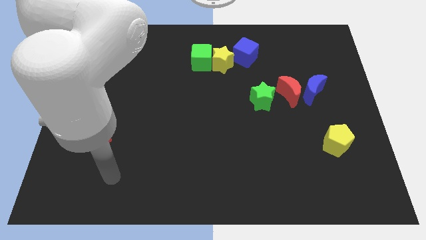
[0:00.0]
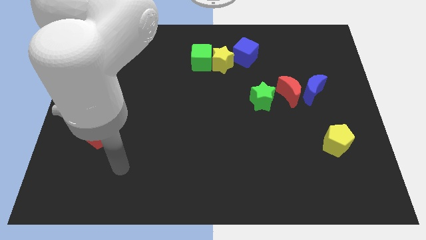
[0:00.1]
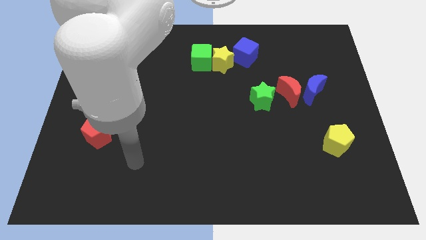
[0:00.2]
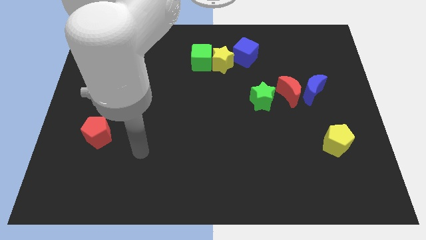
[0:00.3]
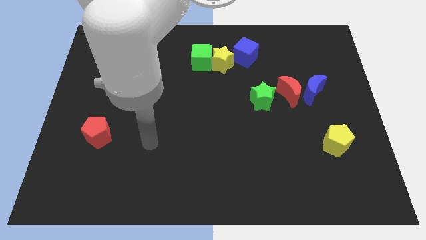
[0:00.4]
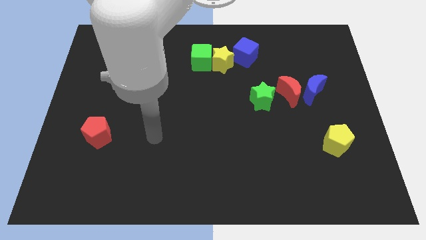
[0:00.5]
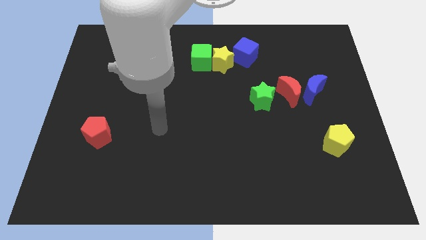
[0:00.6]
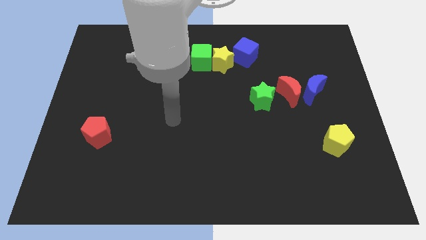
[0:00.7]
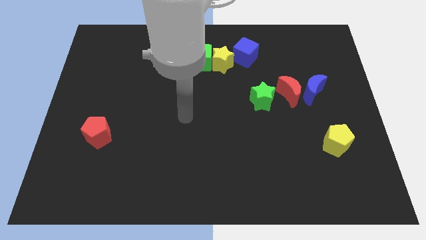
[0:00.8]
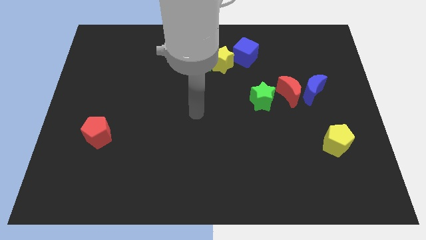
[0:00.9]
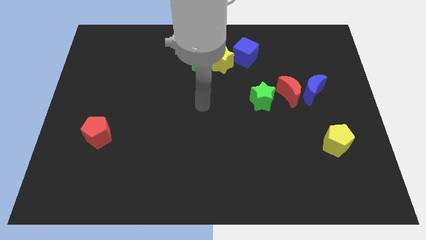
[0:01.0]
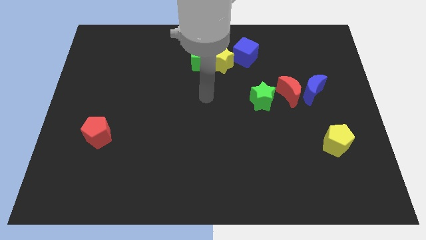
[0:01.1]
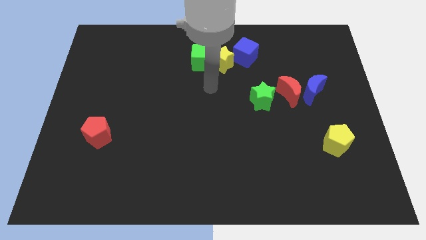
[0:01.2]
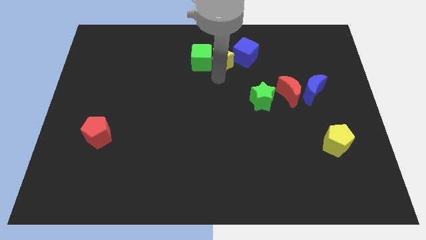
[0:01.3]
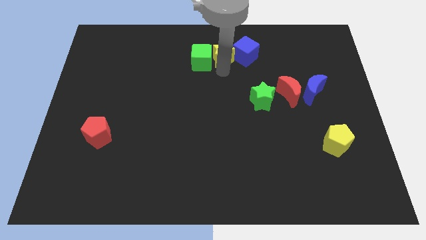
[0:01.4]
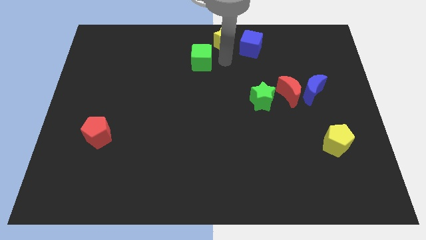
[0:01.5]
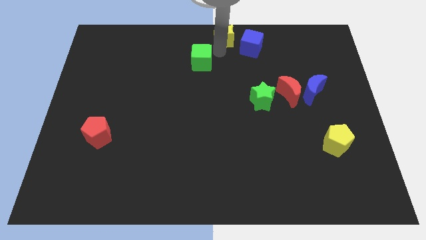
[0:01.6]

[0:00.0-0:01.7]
move the green cube away from the yellow star

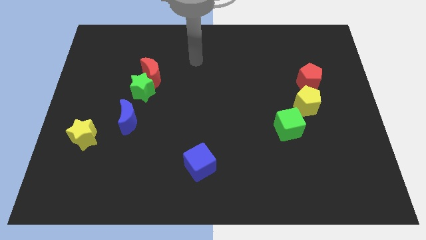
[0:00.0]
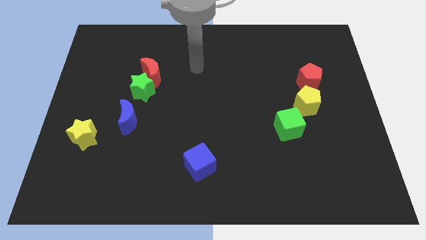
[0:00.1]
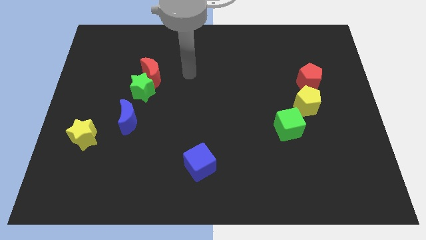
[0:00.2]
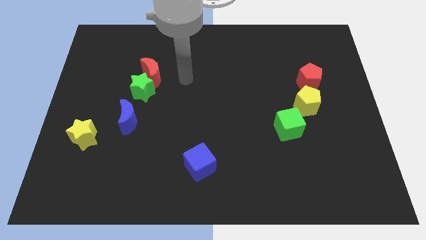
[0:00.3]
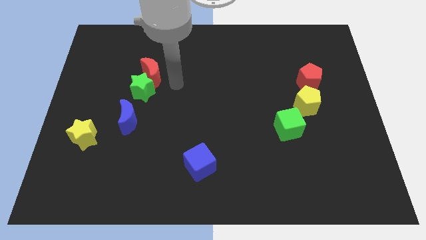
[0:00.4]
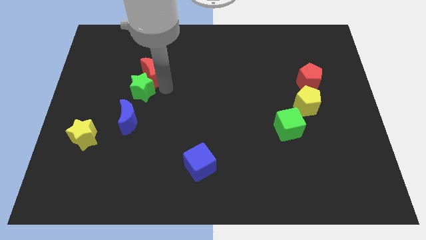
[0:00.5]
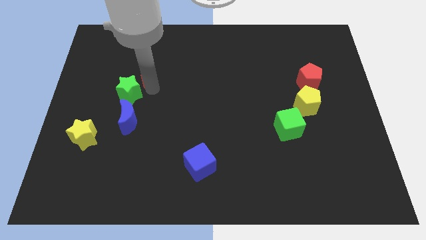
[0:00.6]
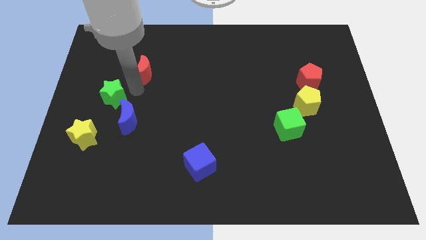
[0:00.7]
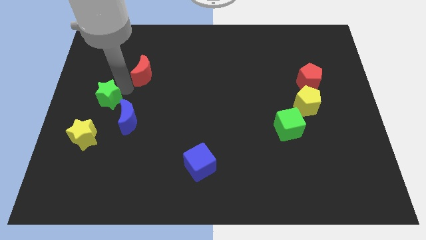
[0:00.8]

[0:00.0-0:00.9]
move the red moon away from the green star

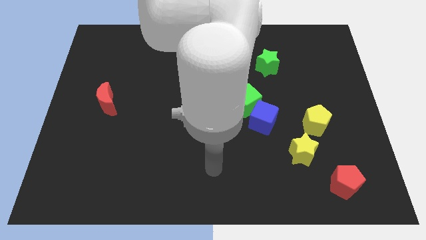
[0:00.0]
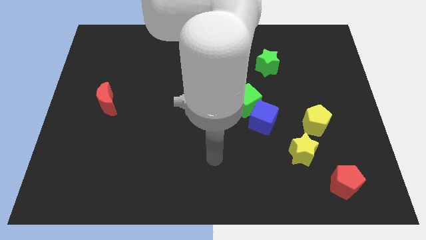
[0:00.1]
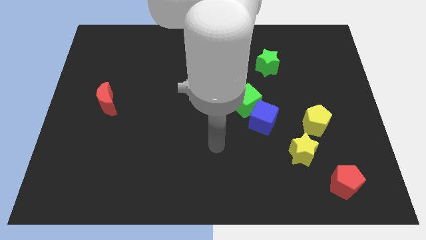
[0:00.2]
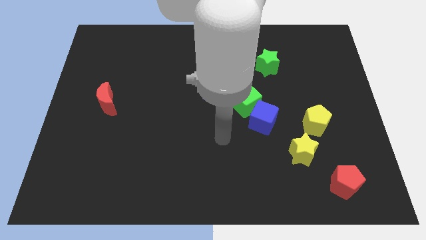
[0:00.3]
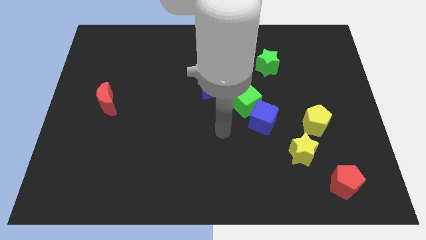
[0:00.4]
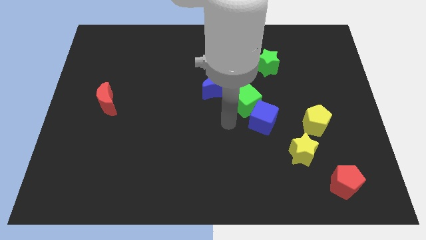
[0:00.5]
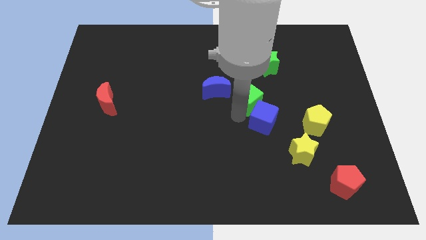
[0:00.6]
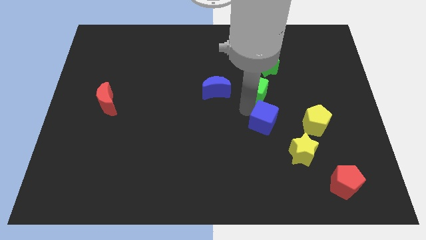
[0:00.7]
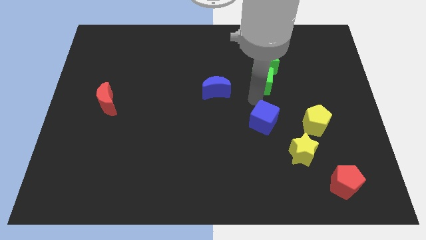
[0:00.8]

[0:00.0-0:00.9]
move the blue cube away from the green cube

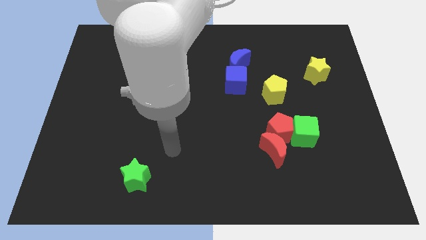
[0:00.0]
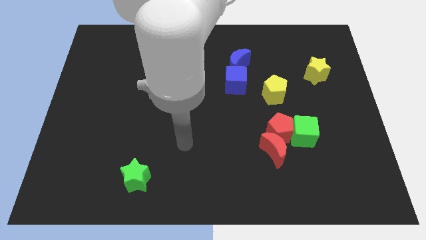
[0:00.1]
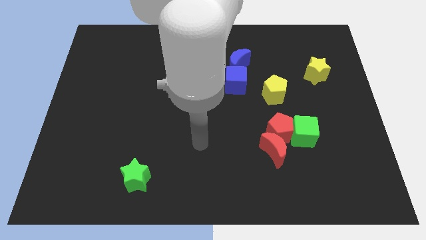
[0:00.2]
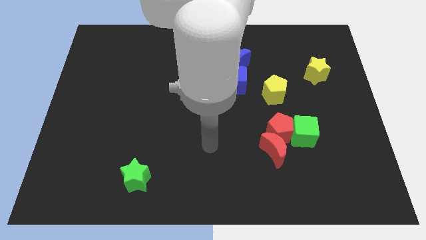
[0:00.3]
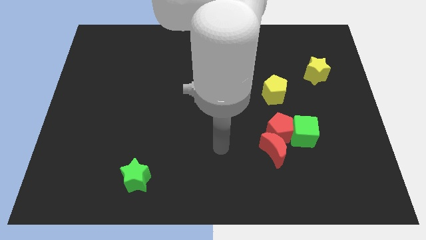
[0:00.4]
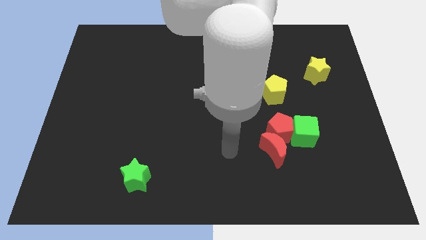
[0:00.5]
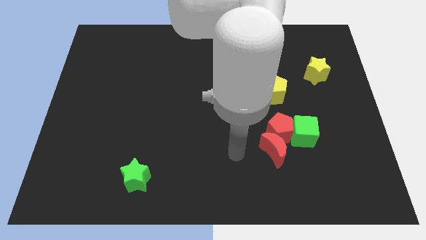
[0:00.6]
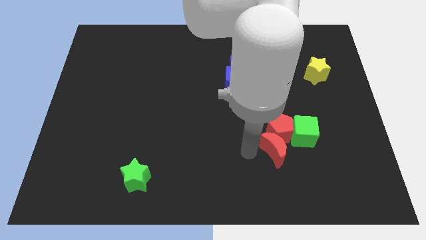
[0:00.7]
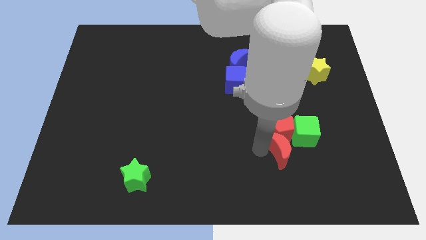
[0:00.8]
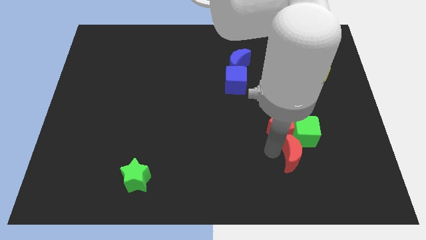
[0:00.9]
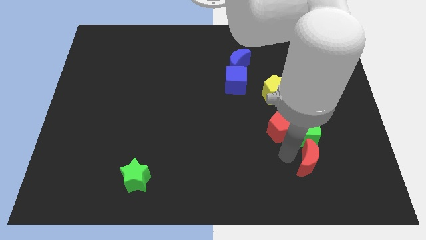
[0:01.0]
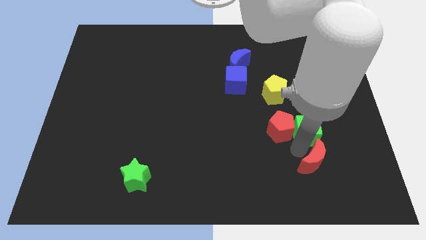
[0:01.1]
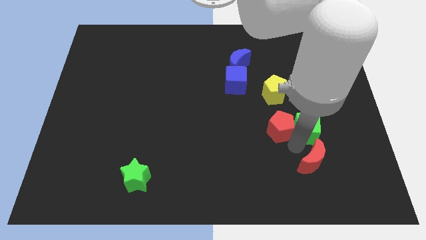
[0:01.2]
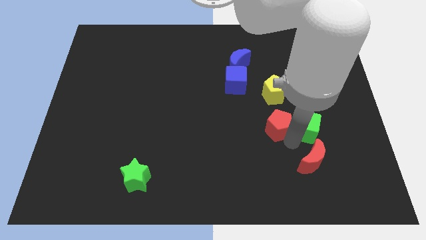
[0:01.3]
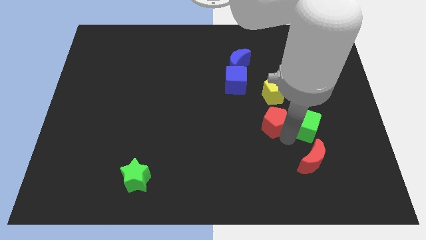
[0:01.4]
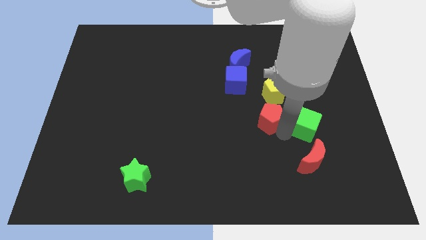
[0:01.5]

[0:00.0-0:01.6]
move the red pentagon away from the red moon and green cube

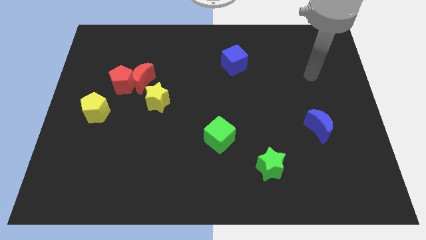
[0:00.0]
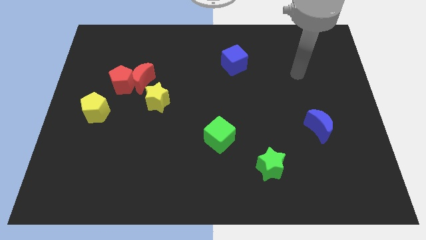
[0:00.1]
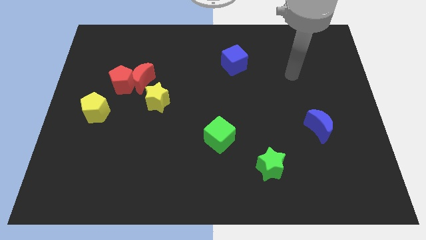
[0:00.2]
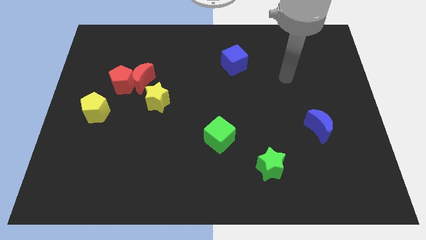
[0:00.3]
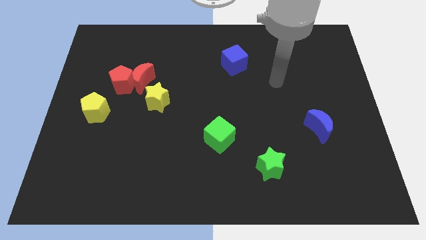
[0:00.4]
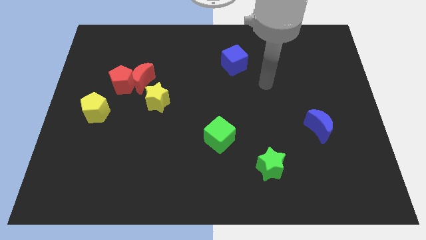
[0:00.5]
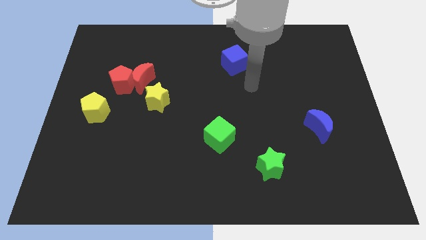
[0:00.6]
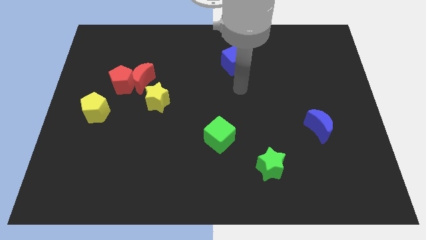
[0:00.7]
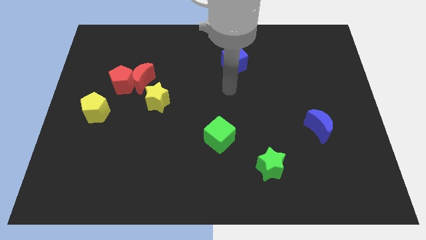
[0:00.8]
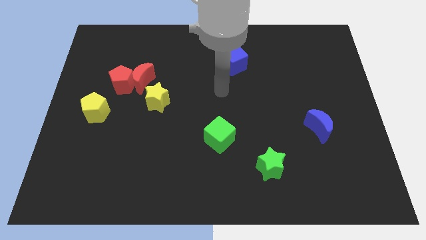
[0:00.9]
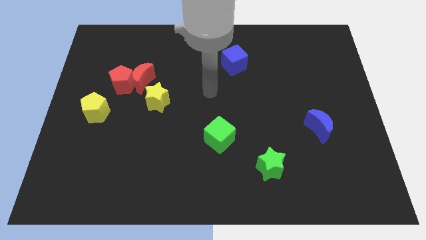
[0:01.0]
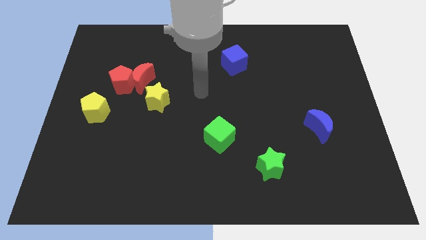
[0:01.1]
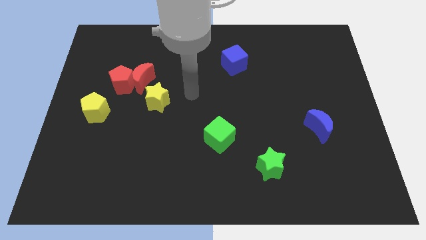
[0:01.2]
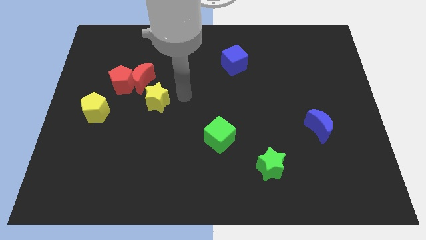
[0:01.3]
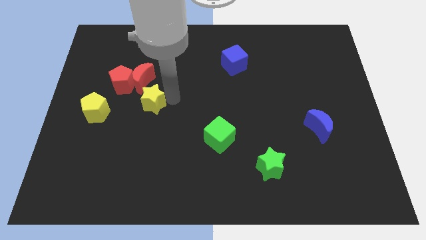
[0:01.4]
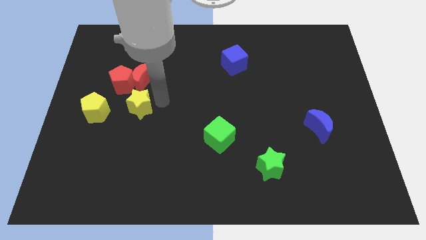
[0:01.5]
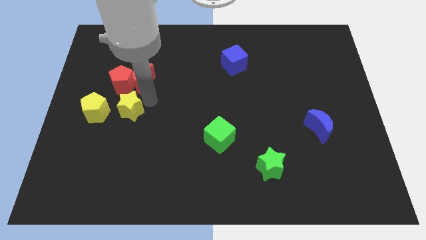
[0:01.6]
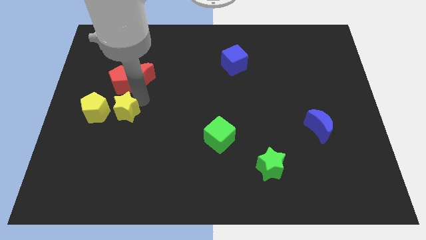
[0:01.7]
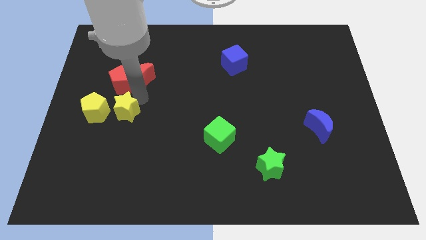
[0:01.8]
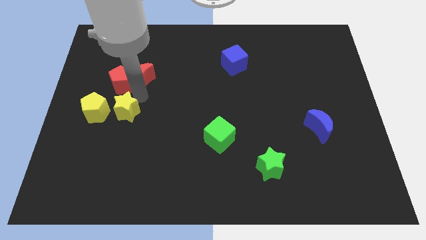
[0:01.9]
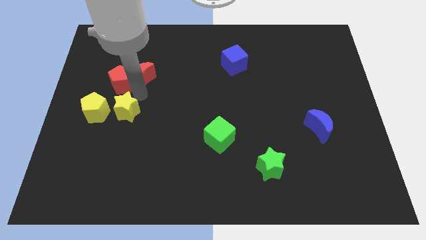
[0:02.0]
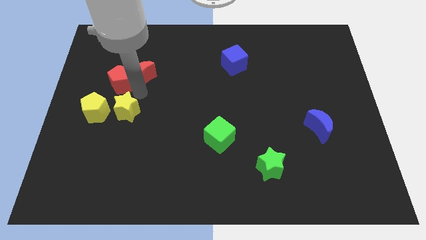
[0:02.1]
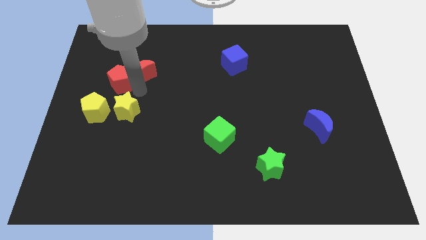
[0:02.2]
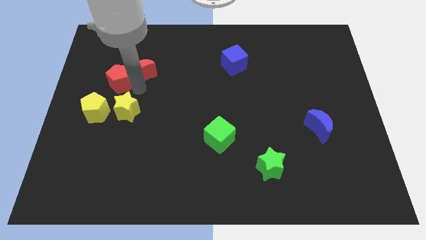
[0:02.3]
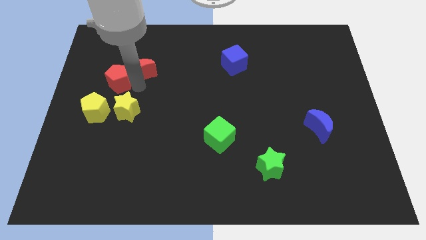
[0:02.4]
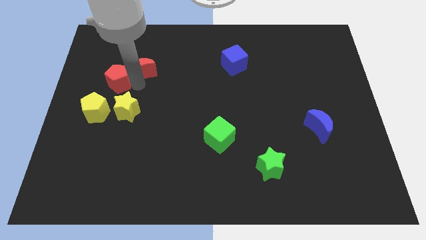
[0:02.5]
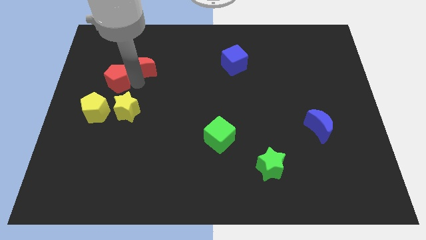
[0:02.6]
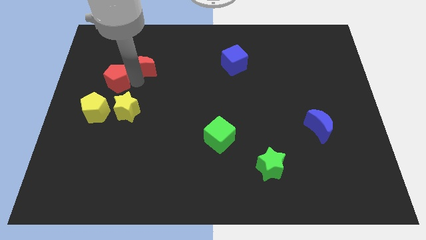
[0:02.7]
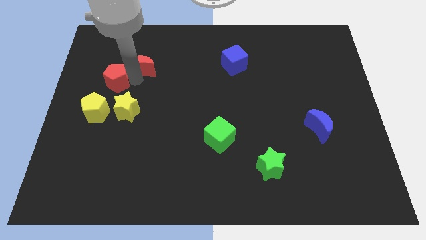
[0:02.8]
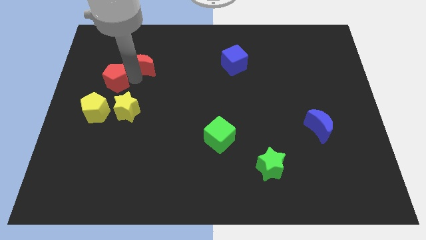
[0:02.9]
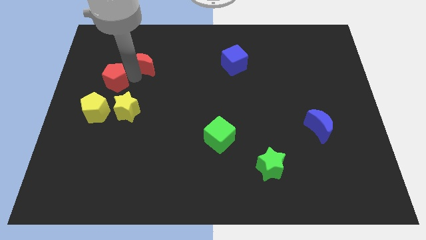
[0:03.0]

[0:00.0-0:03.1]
move the red moon away from the red pentagon and yellow star

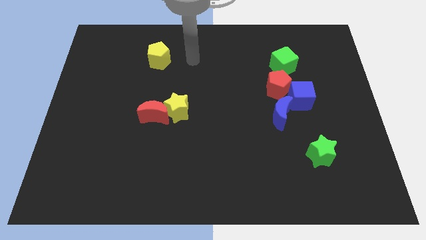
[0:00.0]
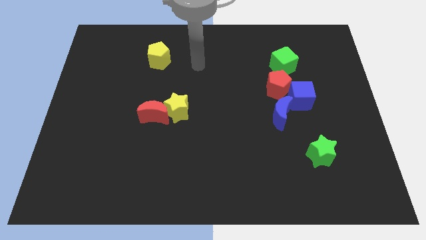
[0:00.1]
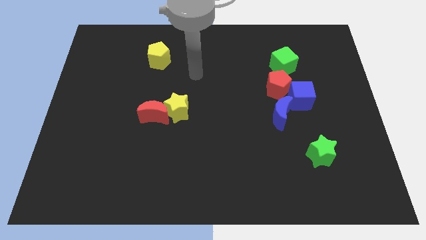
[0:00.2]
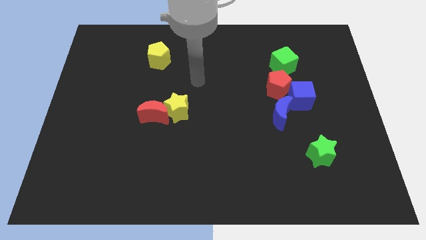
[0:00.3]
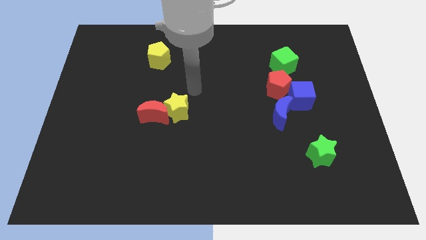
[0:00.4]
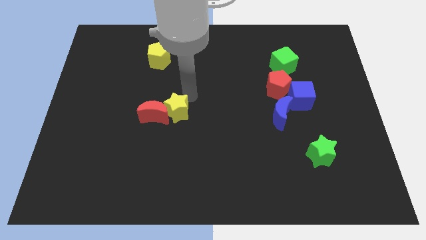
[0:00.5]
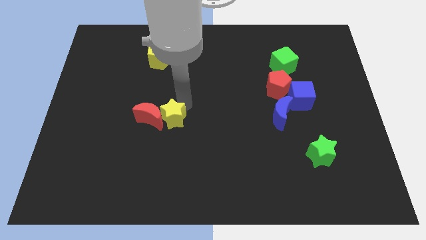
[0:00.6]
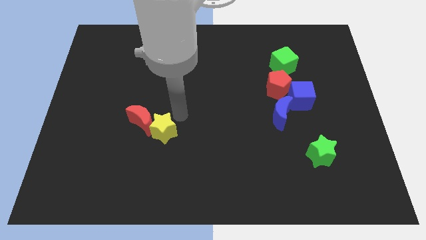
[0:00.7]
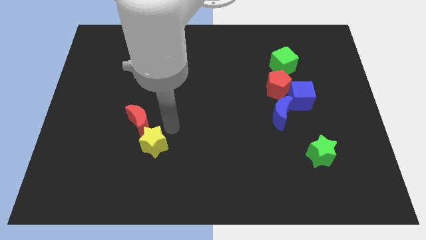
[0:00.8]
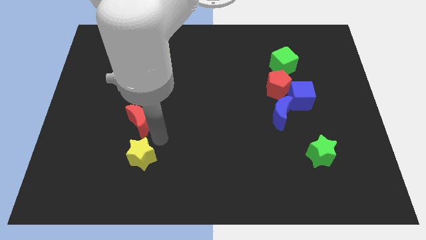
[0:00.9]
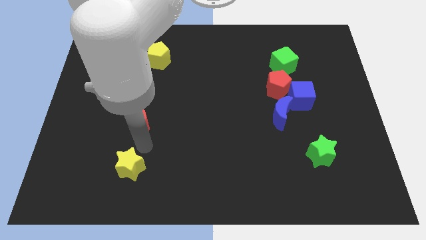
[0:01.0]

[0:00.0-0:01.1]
move the red moon away from the yellow star
